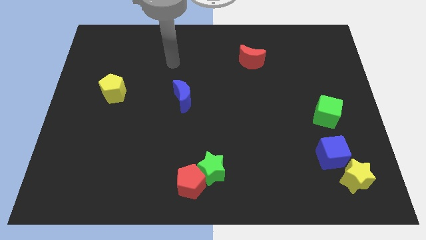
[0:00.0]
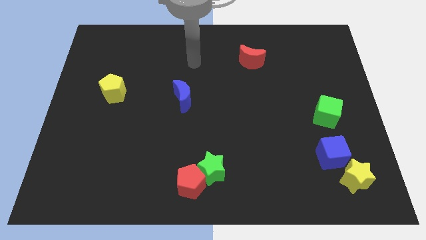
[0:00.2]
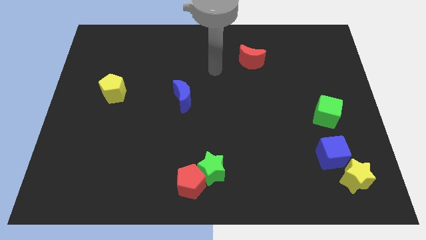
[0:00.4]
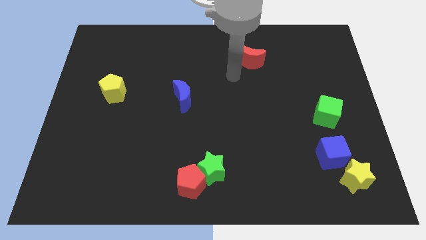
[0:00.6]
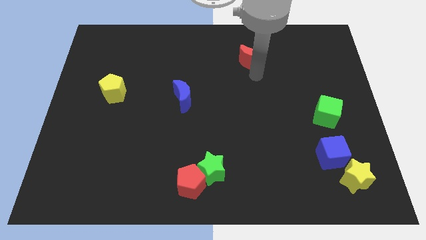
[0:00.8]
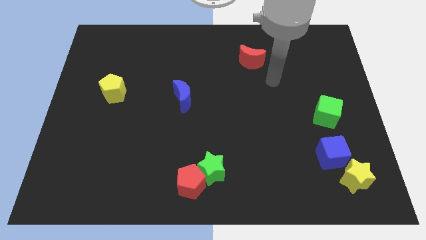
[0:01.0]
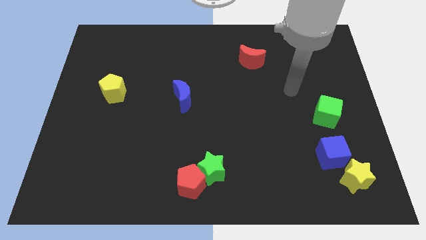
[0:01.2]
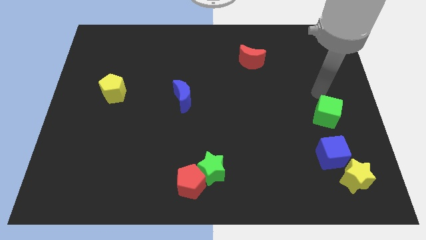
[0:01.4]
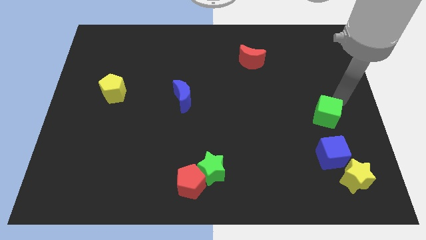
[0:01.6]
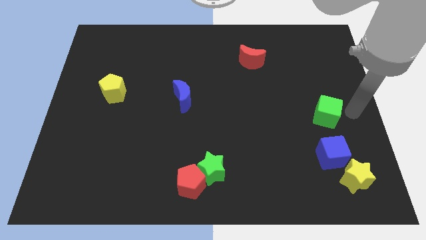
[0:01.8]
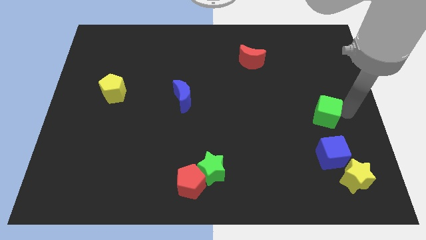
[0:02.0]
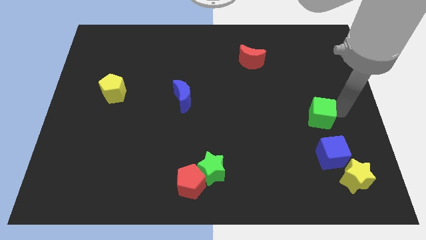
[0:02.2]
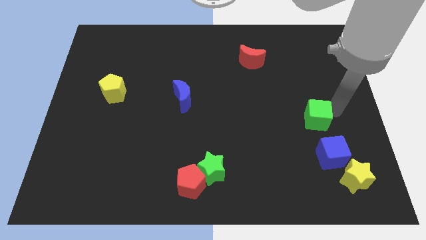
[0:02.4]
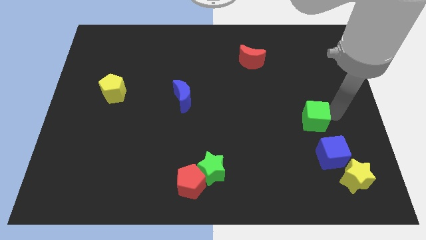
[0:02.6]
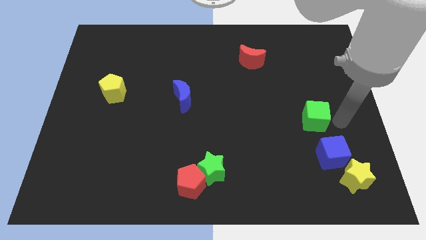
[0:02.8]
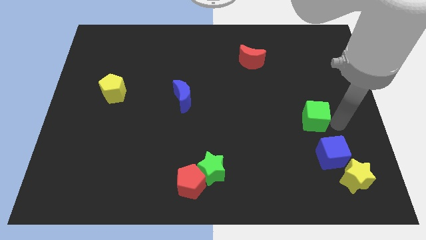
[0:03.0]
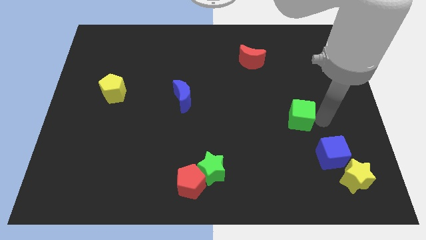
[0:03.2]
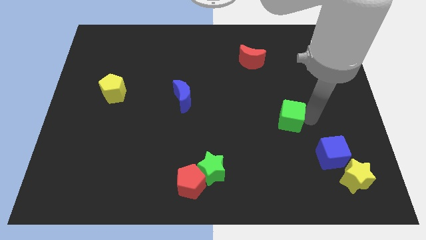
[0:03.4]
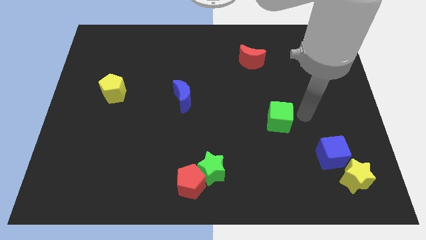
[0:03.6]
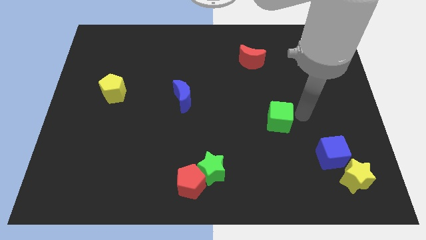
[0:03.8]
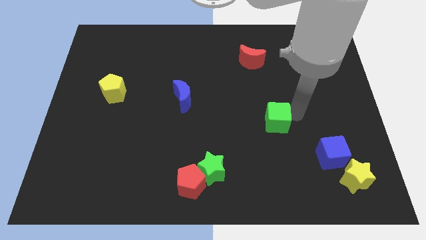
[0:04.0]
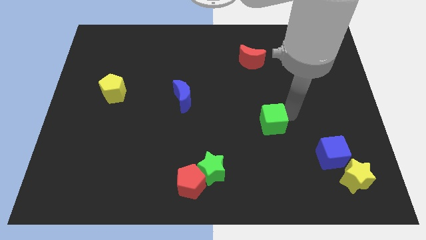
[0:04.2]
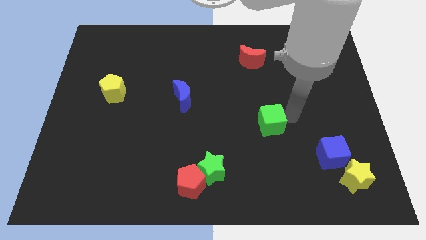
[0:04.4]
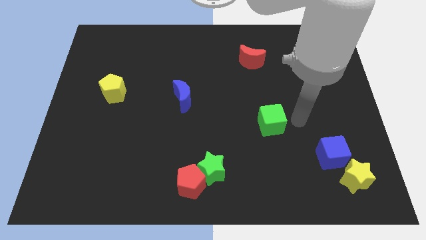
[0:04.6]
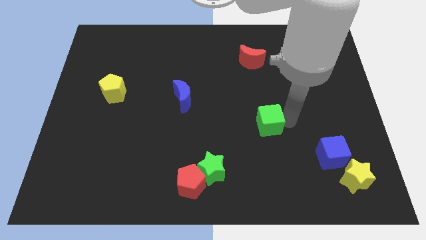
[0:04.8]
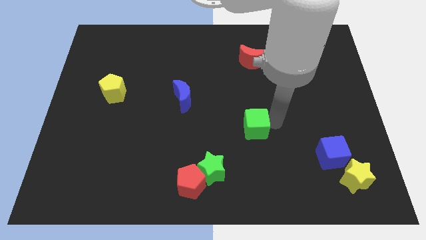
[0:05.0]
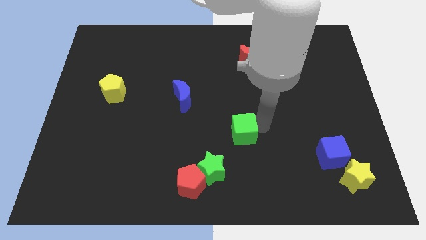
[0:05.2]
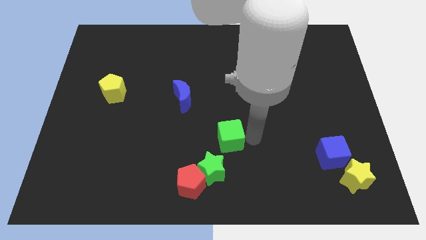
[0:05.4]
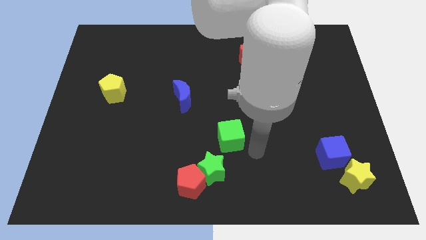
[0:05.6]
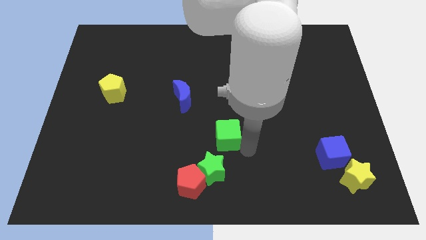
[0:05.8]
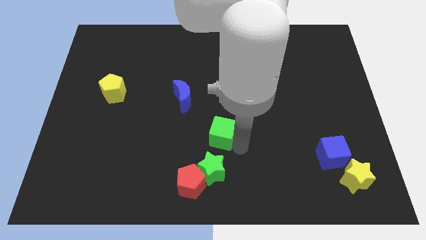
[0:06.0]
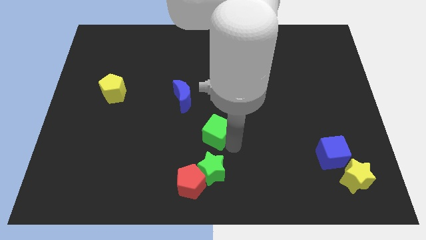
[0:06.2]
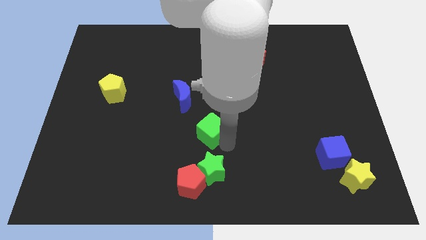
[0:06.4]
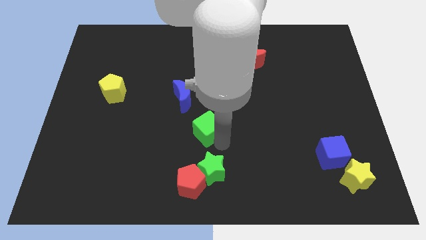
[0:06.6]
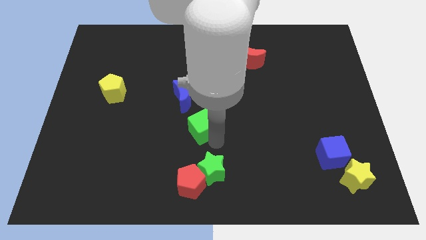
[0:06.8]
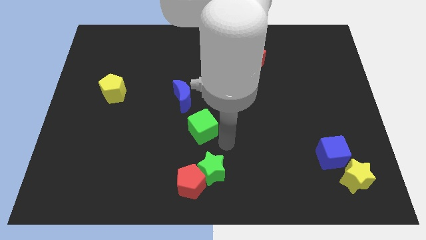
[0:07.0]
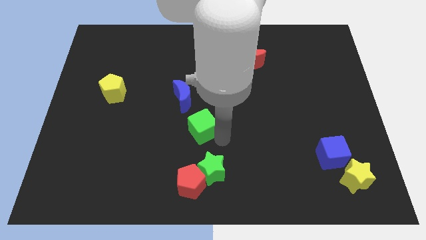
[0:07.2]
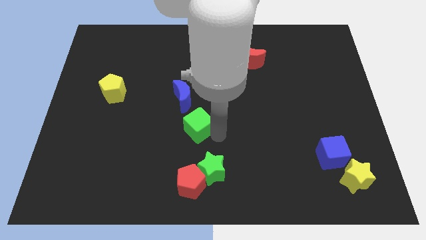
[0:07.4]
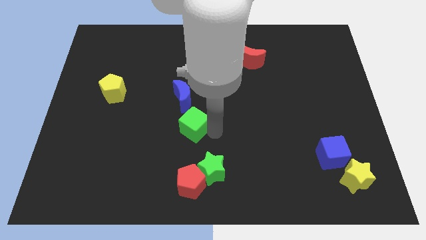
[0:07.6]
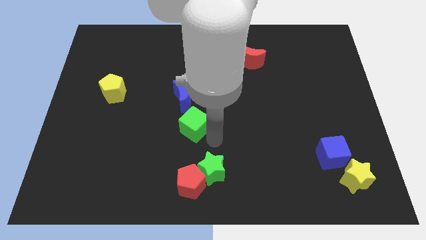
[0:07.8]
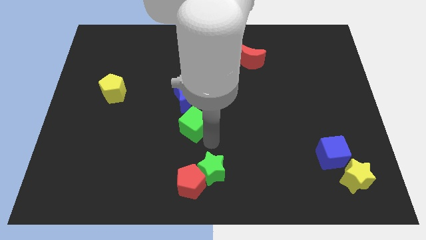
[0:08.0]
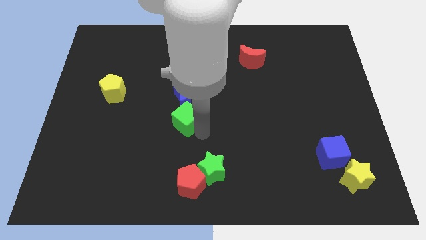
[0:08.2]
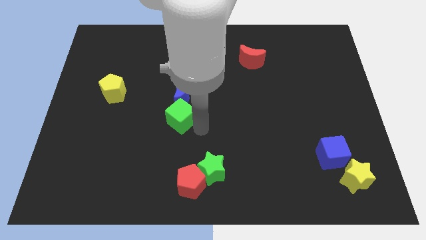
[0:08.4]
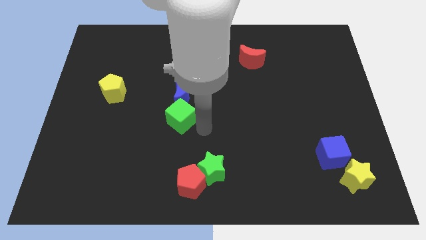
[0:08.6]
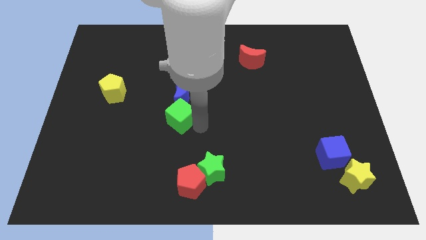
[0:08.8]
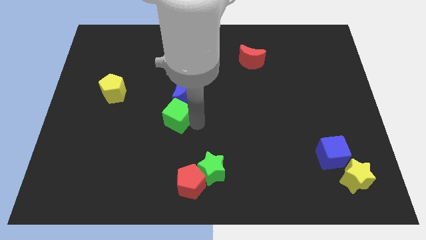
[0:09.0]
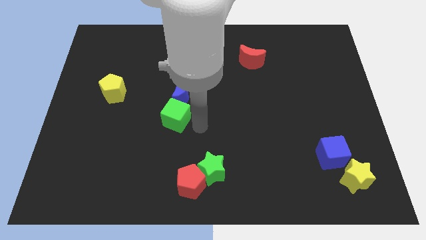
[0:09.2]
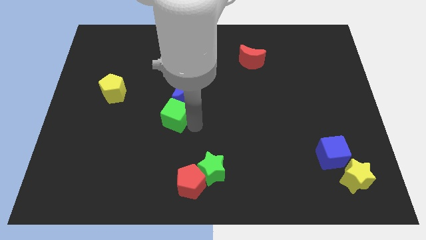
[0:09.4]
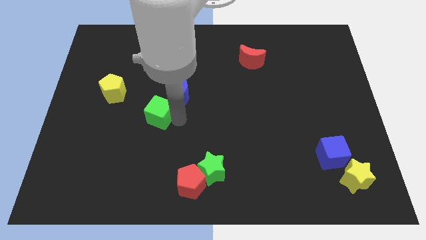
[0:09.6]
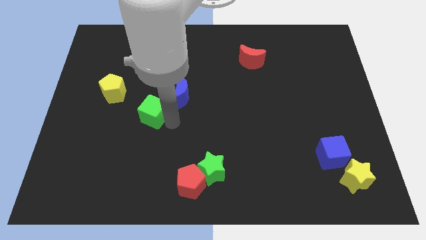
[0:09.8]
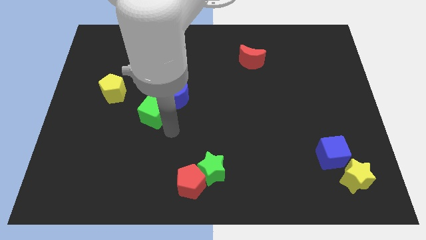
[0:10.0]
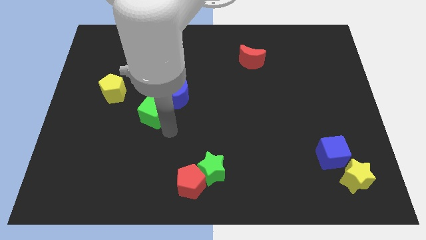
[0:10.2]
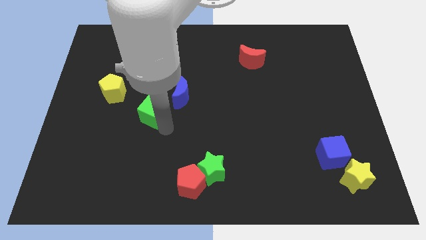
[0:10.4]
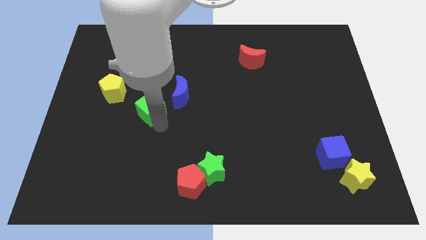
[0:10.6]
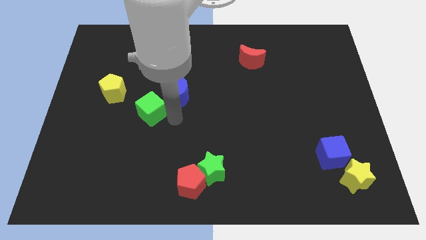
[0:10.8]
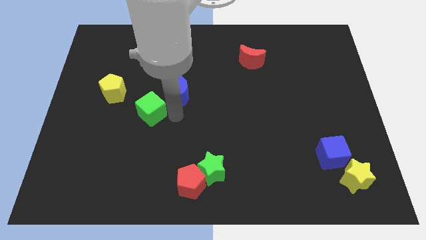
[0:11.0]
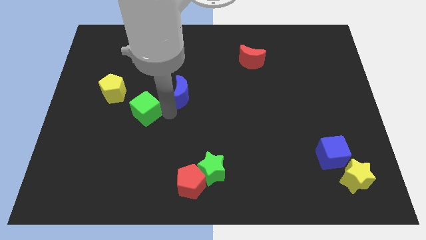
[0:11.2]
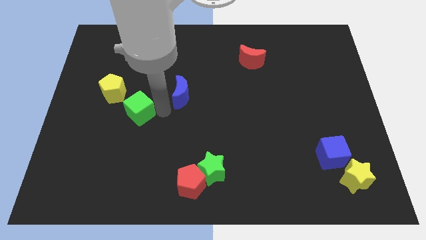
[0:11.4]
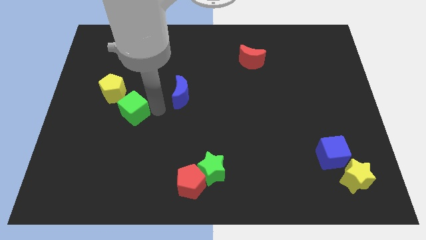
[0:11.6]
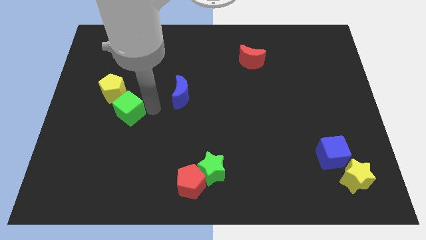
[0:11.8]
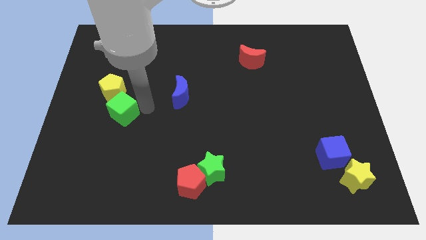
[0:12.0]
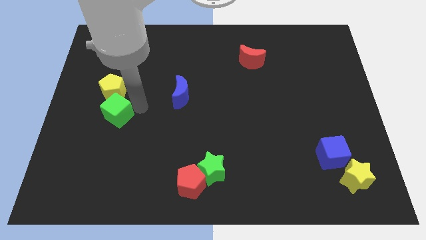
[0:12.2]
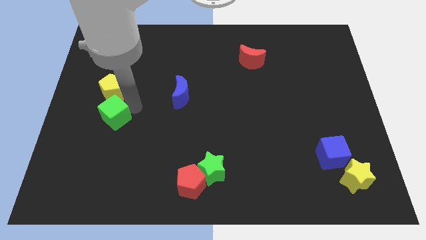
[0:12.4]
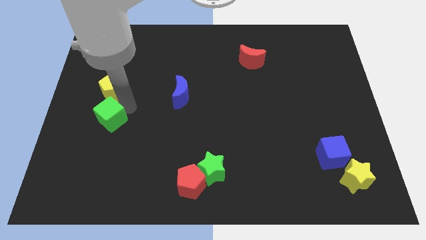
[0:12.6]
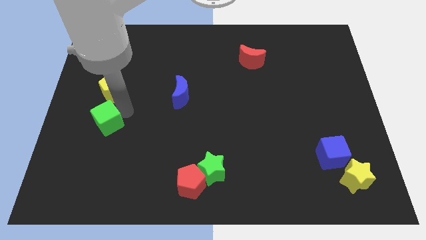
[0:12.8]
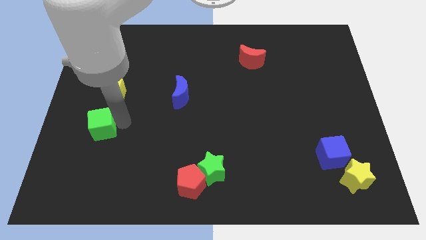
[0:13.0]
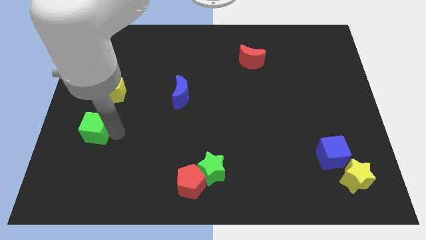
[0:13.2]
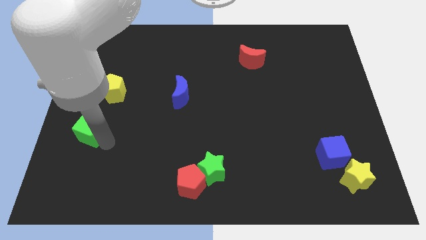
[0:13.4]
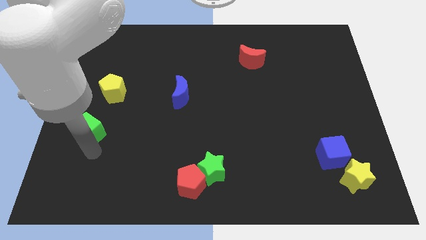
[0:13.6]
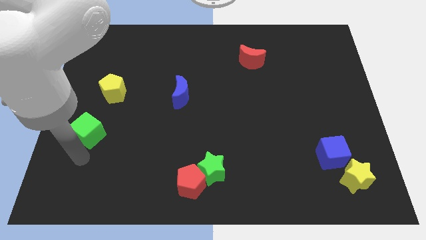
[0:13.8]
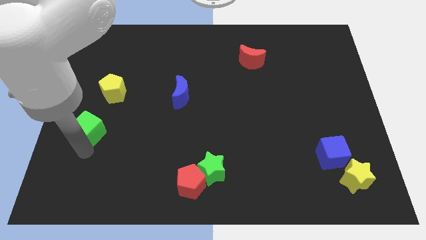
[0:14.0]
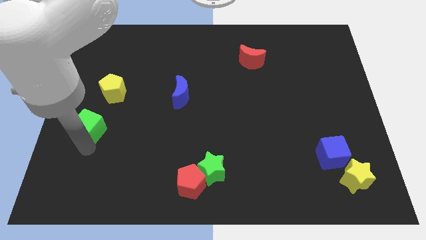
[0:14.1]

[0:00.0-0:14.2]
move the green cube to the center left
